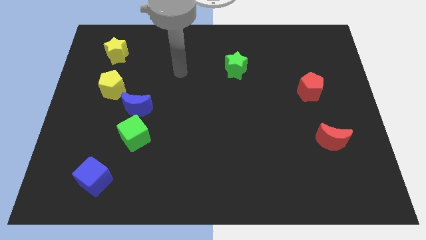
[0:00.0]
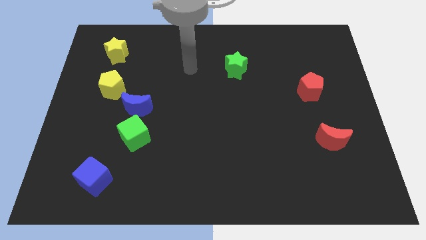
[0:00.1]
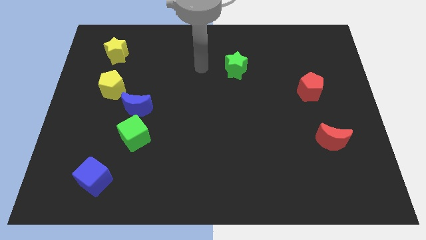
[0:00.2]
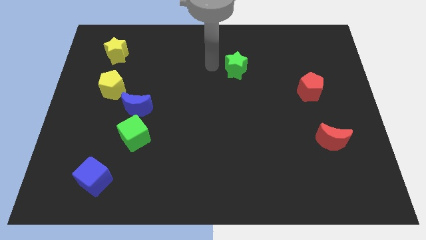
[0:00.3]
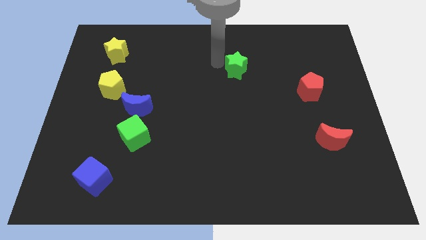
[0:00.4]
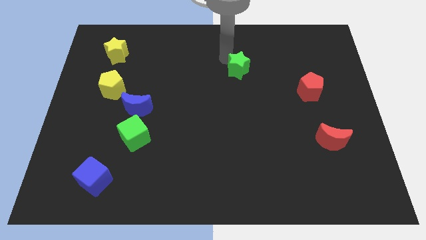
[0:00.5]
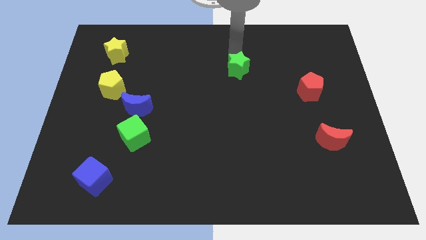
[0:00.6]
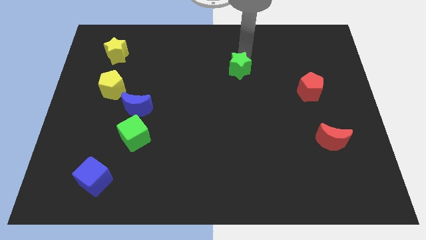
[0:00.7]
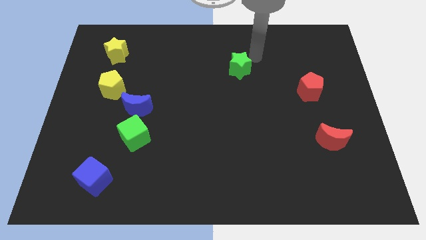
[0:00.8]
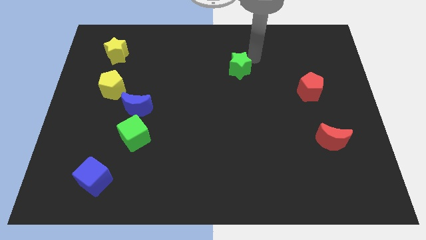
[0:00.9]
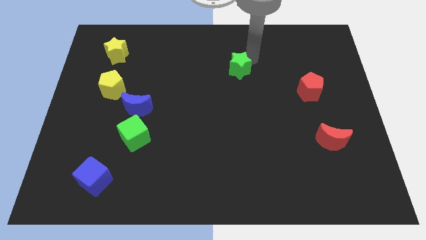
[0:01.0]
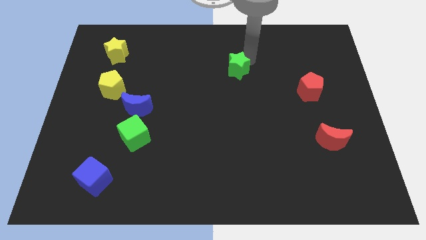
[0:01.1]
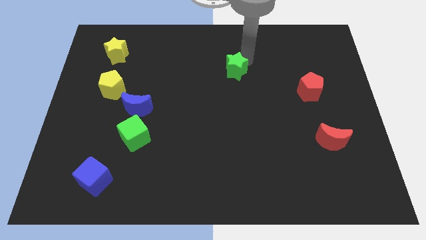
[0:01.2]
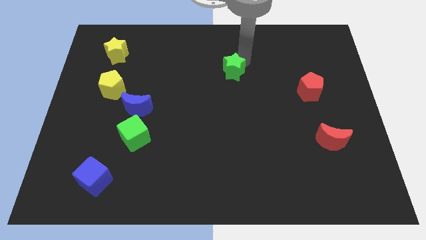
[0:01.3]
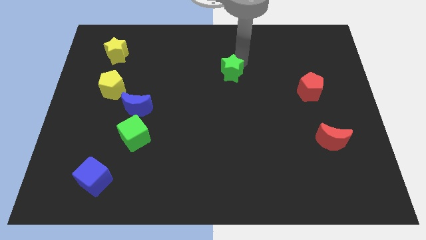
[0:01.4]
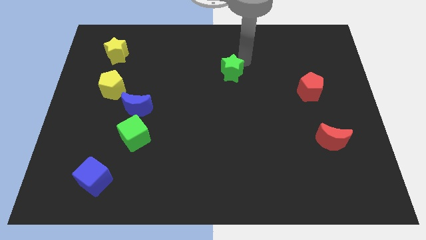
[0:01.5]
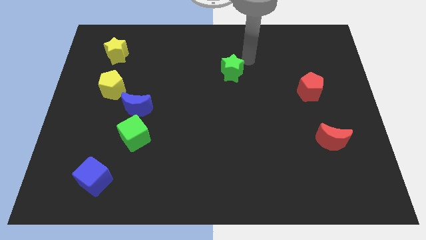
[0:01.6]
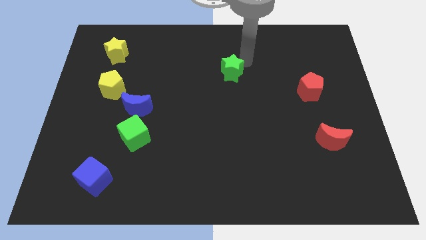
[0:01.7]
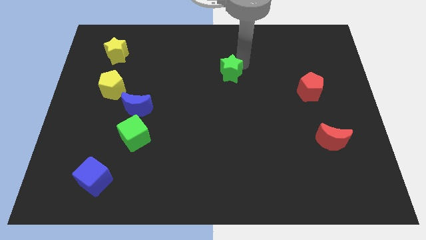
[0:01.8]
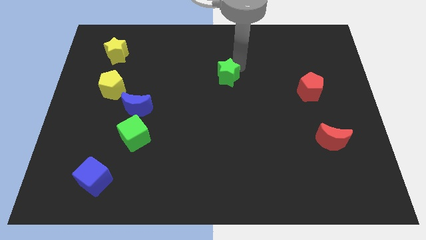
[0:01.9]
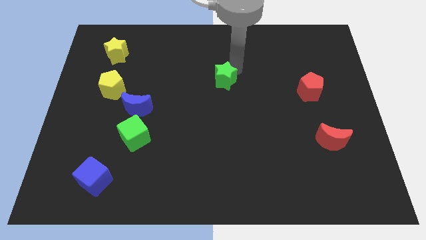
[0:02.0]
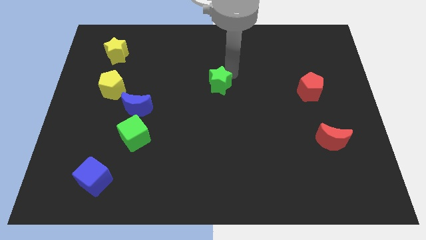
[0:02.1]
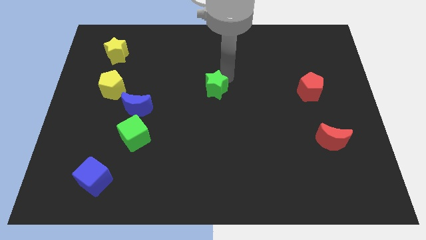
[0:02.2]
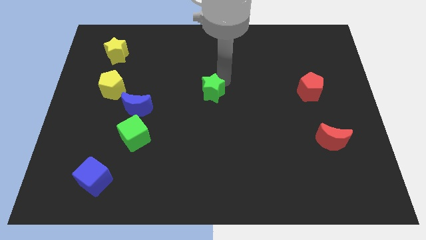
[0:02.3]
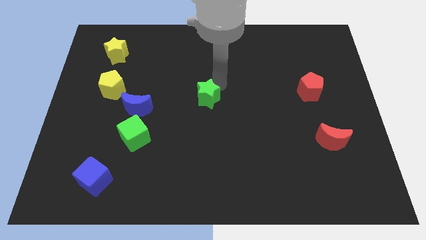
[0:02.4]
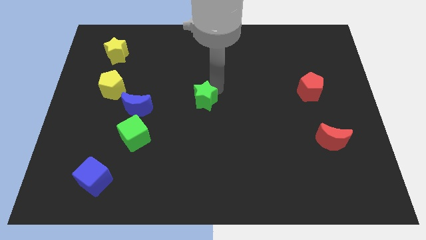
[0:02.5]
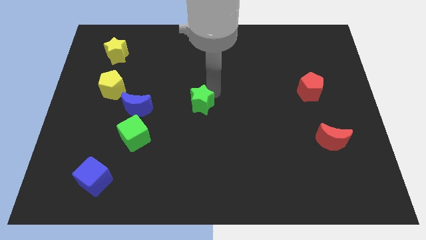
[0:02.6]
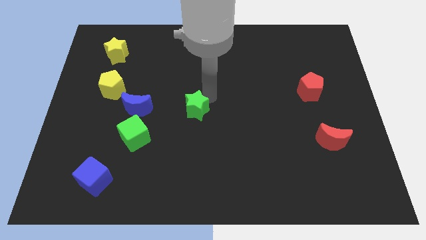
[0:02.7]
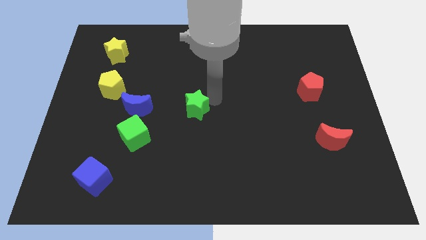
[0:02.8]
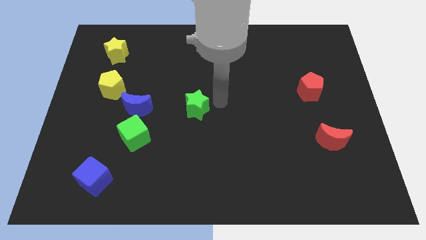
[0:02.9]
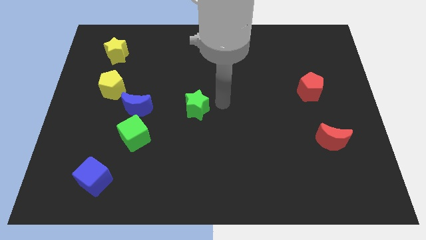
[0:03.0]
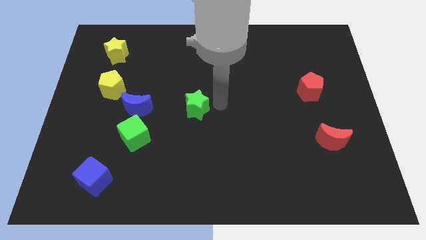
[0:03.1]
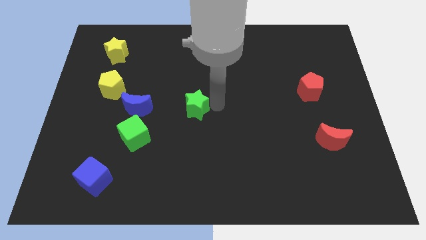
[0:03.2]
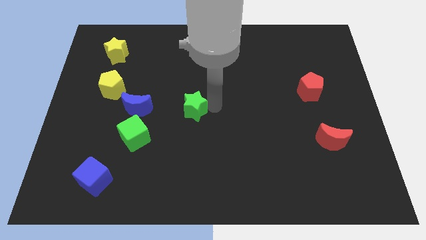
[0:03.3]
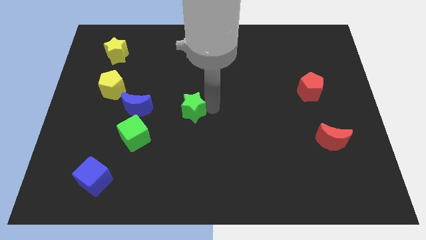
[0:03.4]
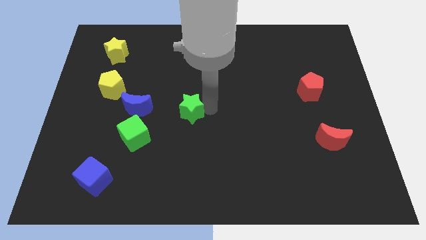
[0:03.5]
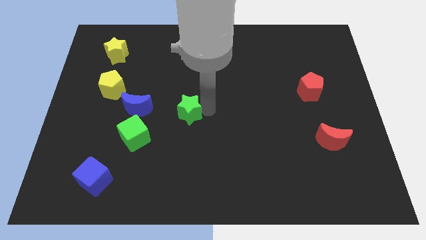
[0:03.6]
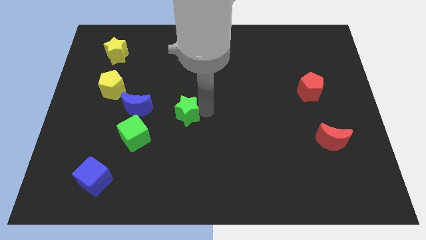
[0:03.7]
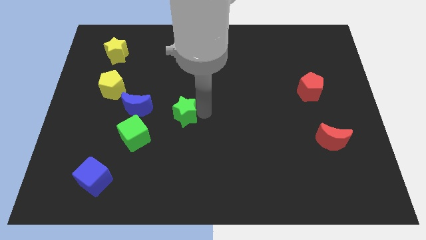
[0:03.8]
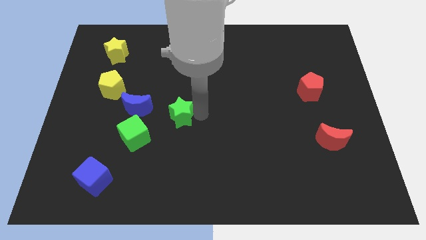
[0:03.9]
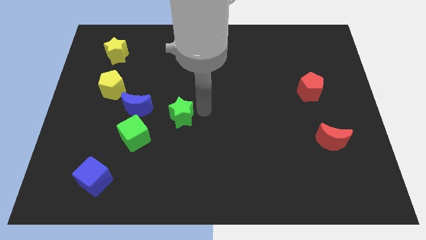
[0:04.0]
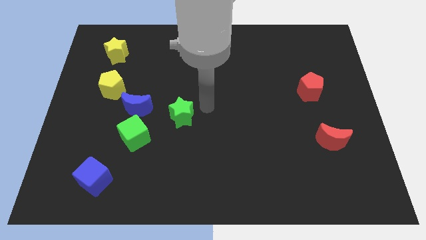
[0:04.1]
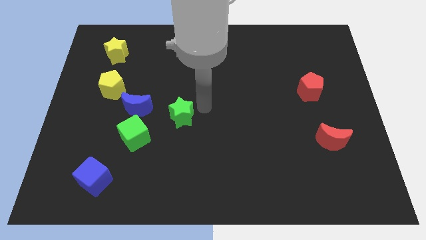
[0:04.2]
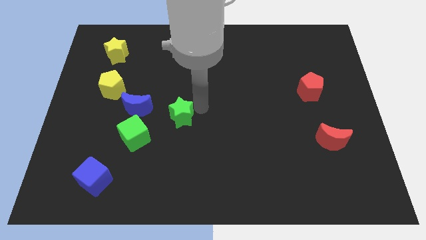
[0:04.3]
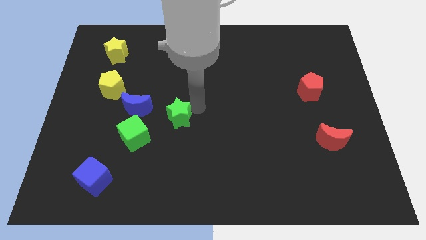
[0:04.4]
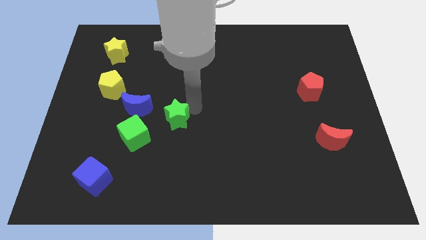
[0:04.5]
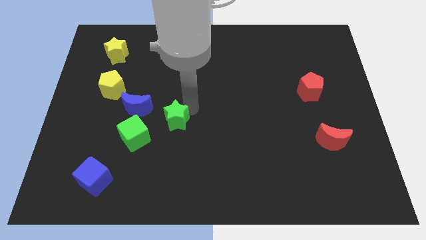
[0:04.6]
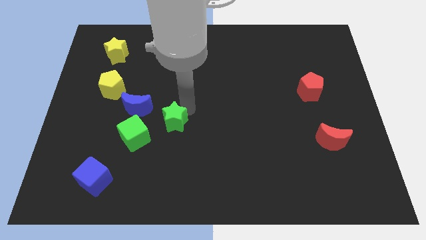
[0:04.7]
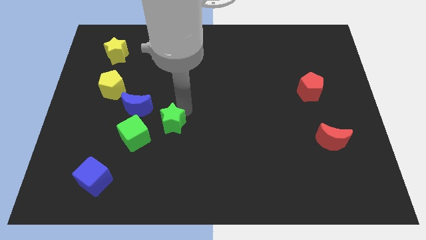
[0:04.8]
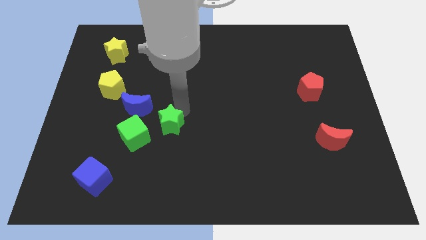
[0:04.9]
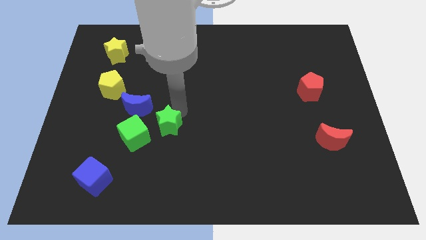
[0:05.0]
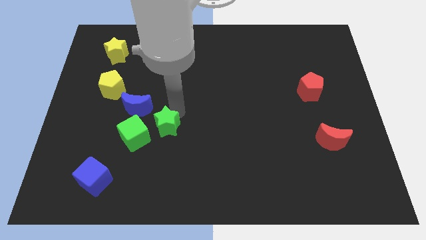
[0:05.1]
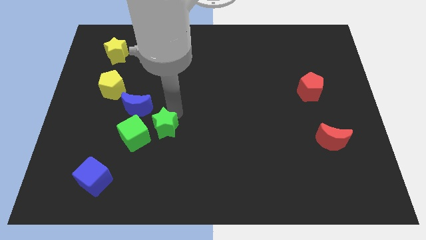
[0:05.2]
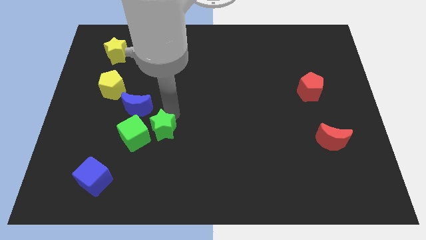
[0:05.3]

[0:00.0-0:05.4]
put the green star close to the green cube

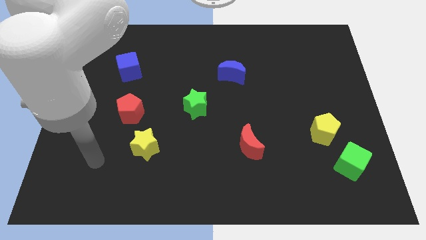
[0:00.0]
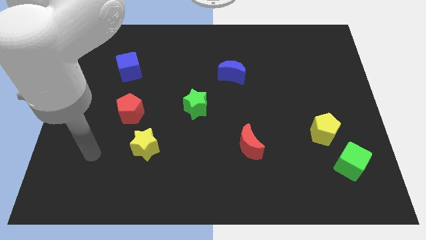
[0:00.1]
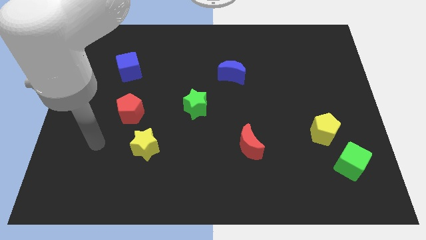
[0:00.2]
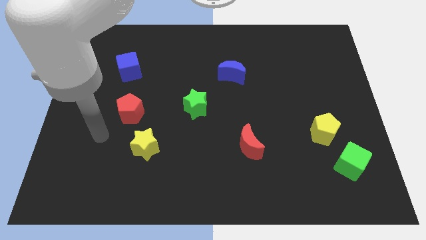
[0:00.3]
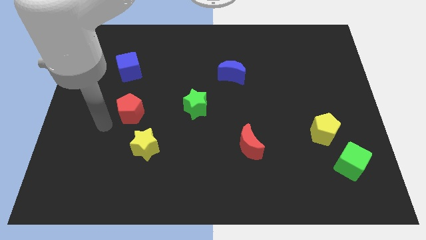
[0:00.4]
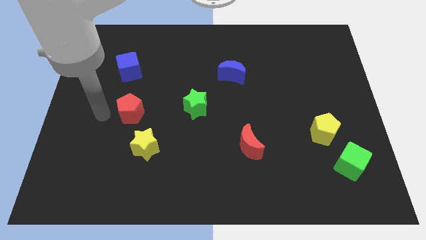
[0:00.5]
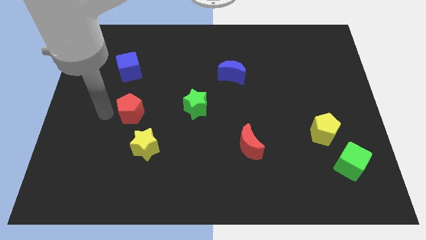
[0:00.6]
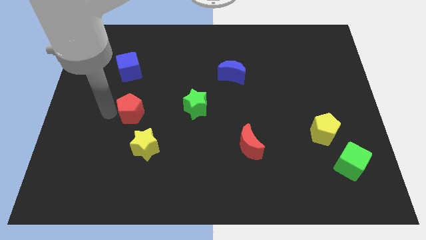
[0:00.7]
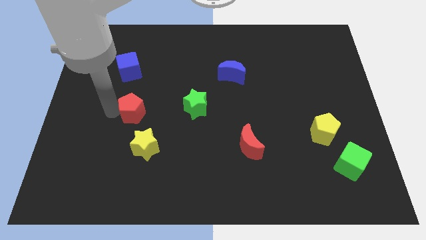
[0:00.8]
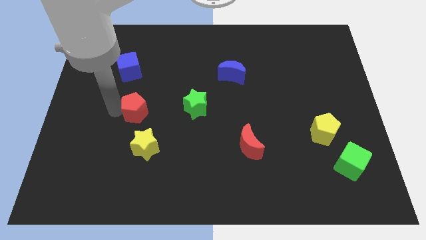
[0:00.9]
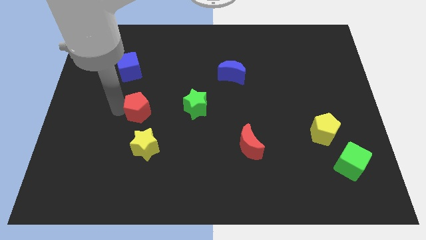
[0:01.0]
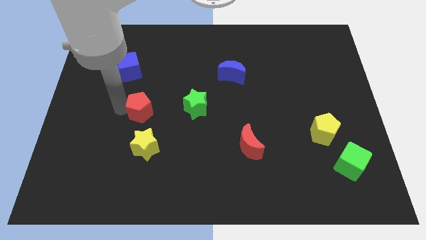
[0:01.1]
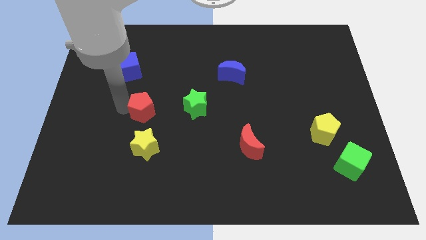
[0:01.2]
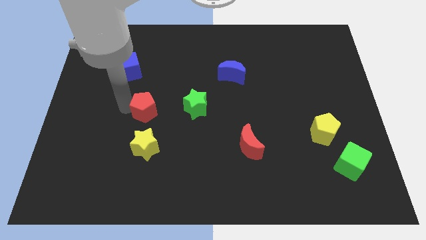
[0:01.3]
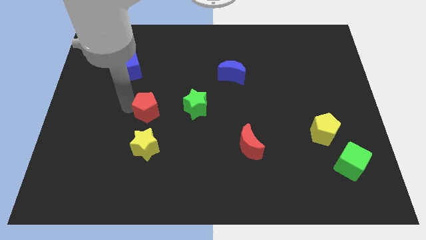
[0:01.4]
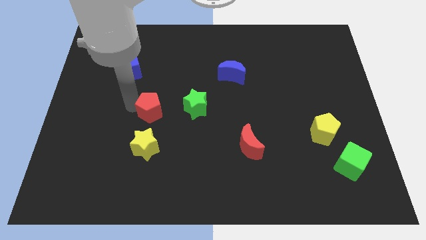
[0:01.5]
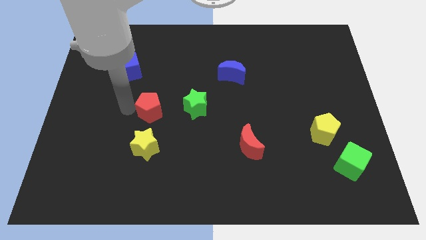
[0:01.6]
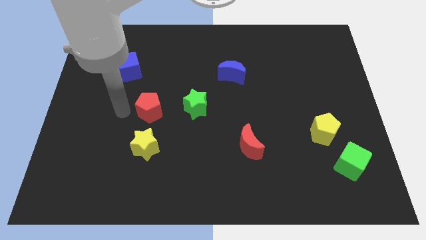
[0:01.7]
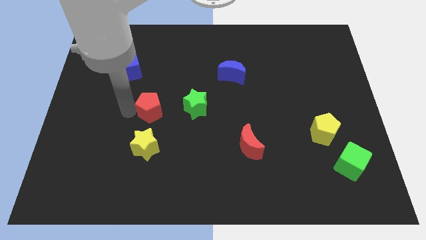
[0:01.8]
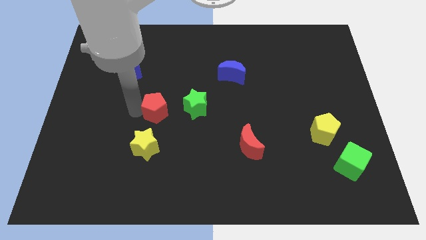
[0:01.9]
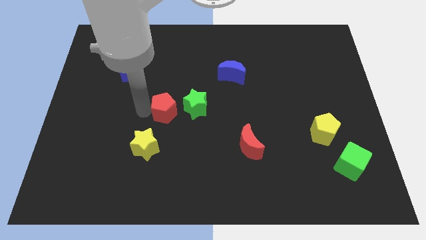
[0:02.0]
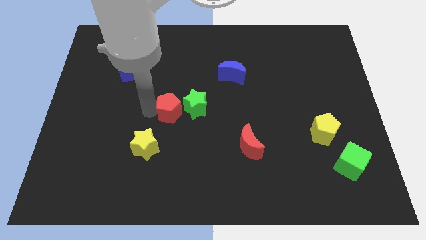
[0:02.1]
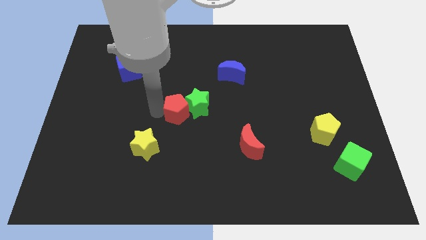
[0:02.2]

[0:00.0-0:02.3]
slide the red pentagon close to the green star
